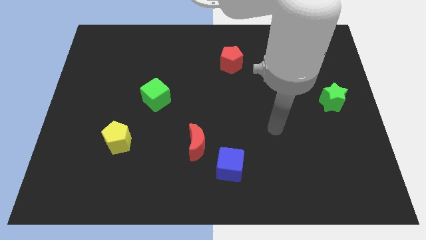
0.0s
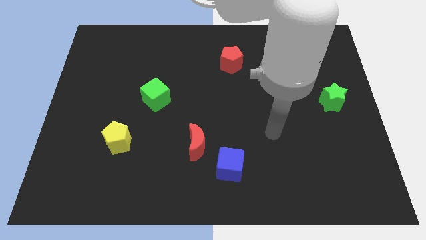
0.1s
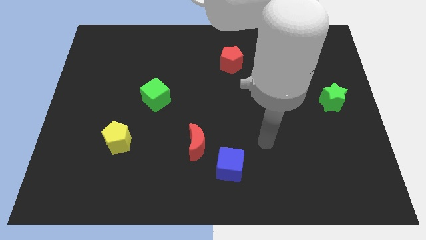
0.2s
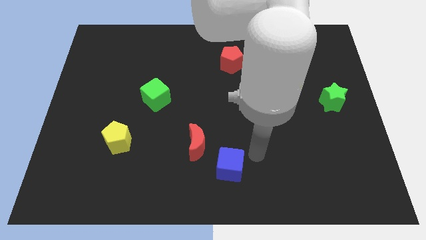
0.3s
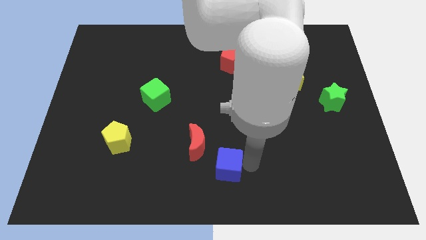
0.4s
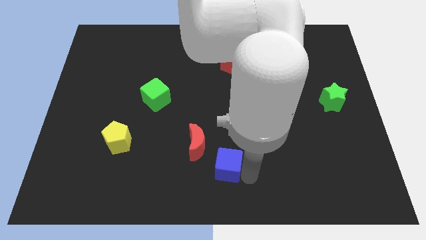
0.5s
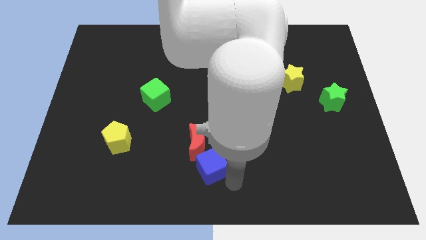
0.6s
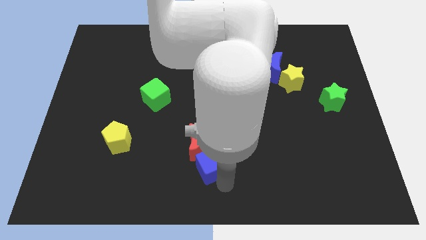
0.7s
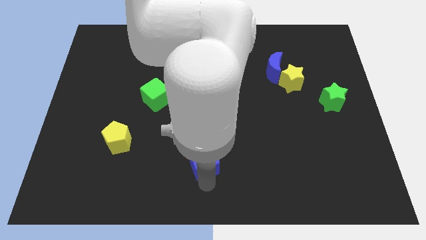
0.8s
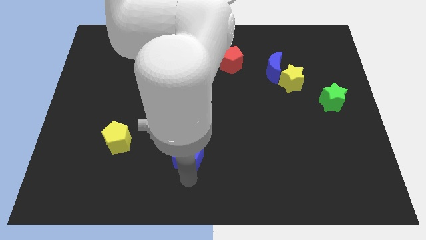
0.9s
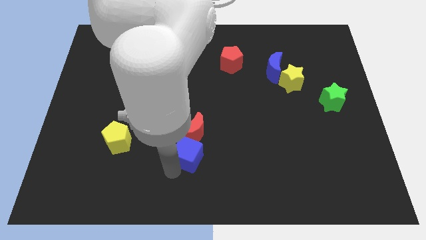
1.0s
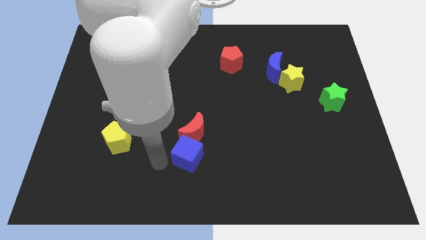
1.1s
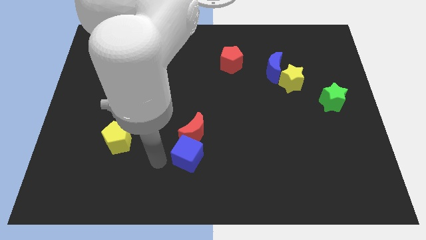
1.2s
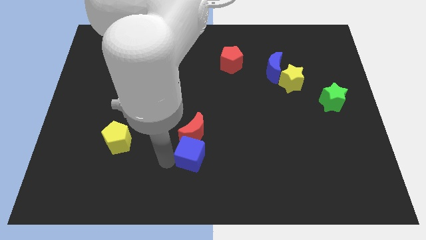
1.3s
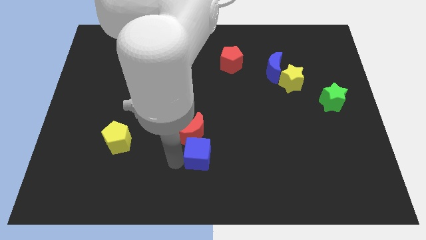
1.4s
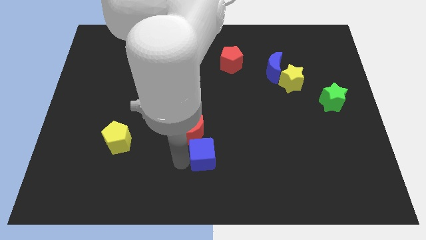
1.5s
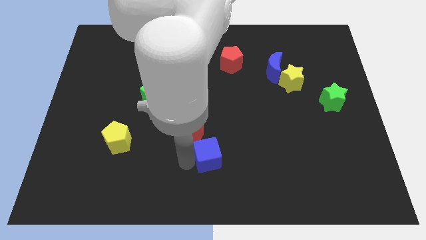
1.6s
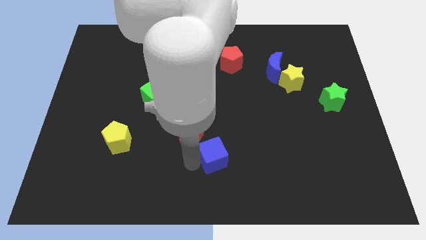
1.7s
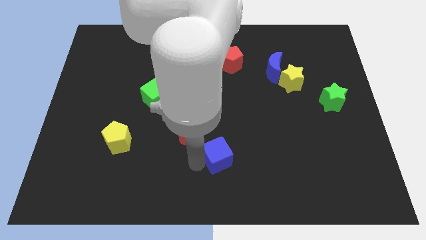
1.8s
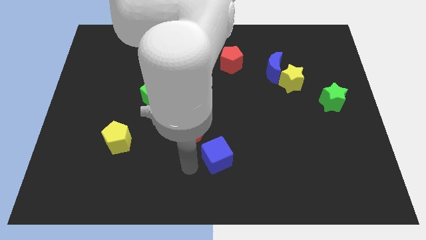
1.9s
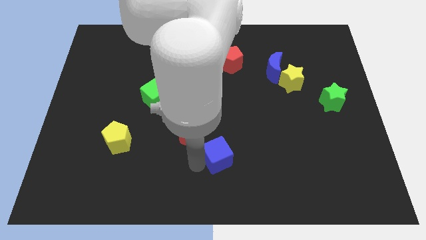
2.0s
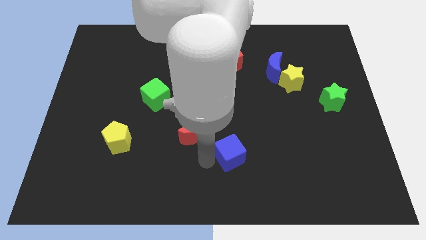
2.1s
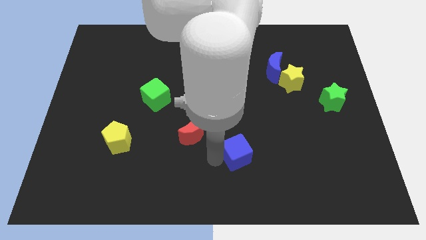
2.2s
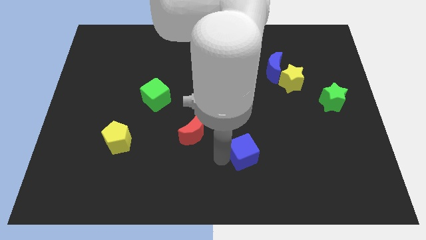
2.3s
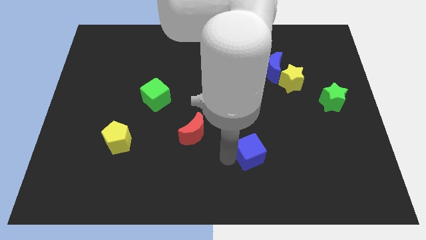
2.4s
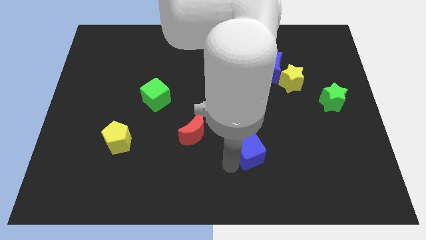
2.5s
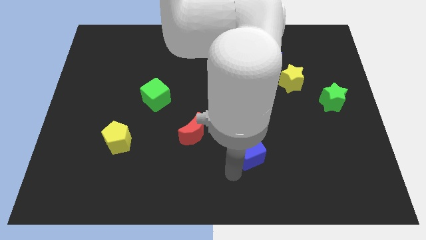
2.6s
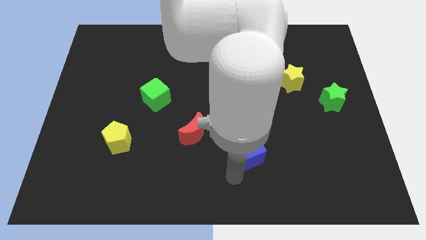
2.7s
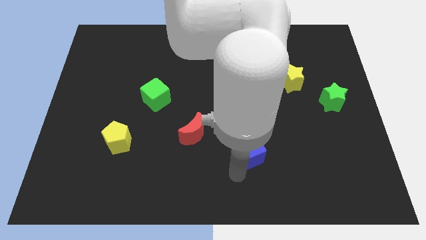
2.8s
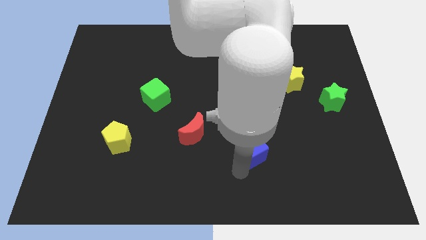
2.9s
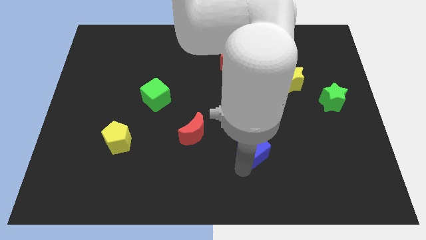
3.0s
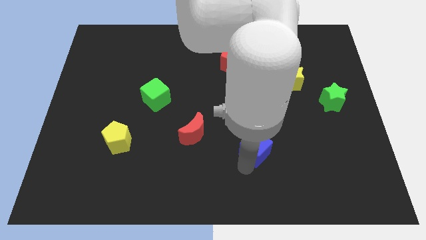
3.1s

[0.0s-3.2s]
push the blue cube a little bit upwards and right

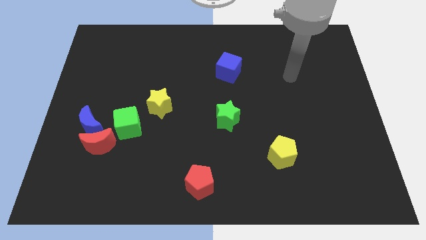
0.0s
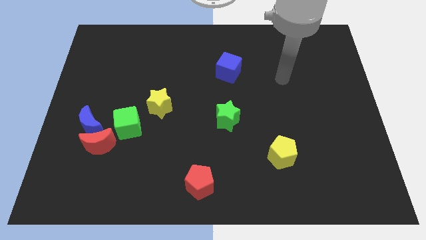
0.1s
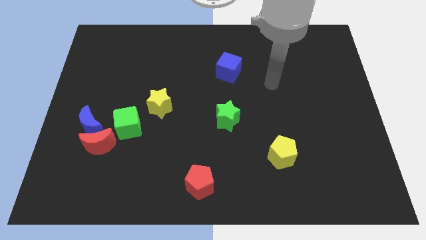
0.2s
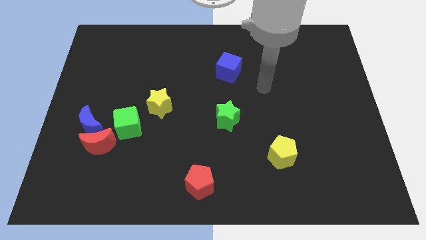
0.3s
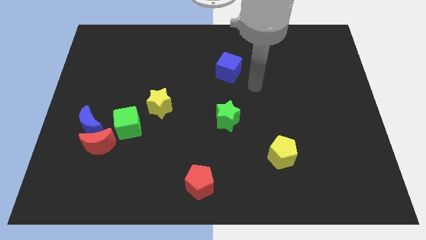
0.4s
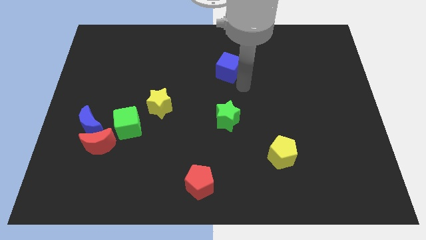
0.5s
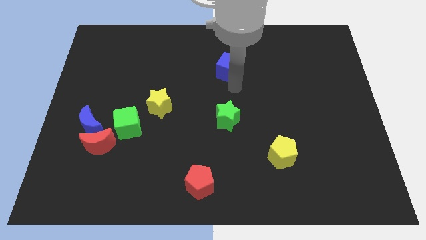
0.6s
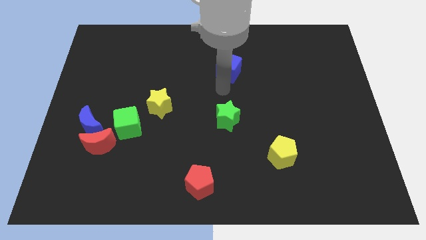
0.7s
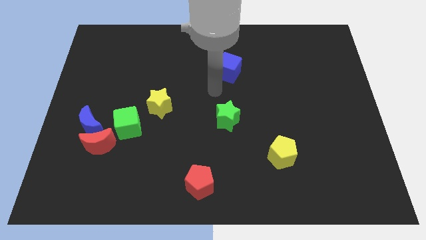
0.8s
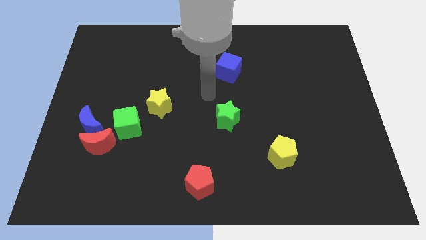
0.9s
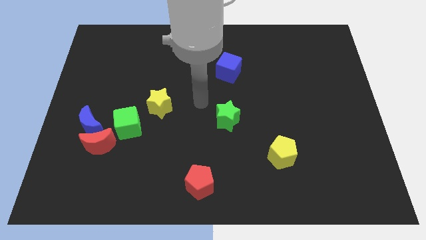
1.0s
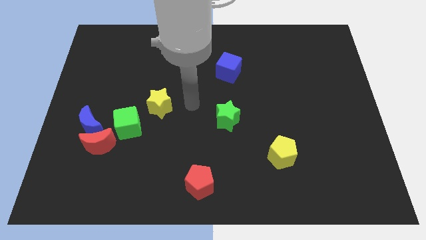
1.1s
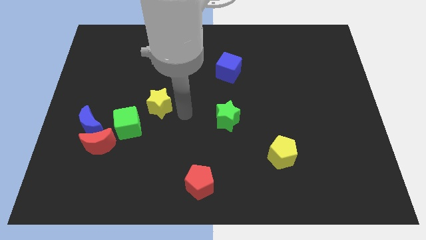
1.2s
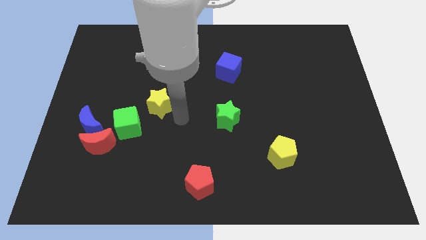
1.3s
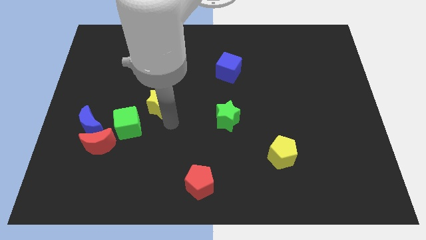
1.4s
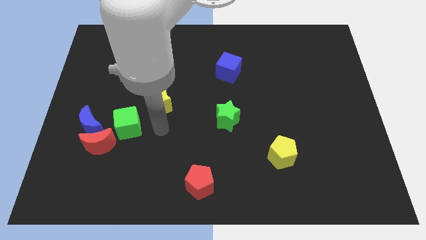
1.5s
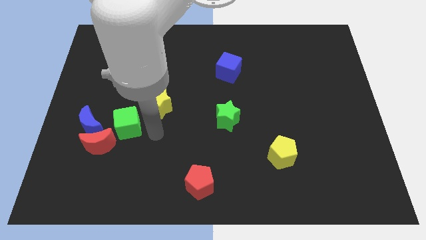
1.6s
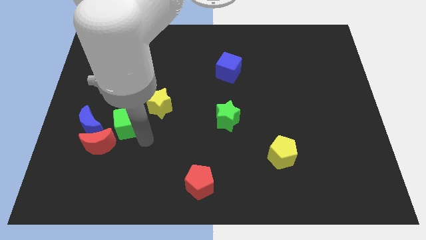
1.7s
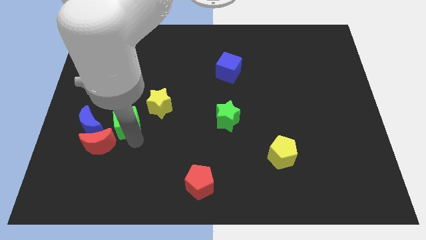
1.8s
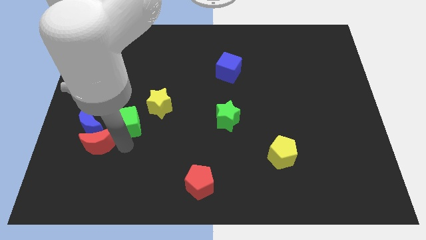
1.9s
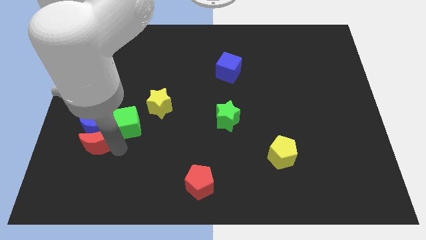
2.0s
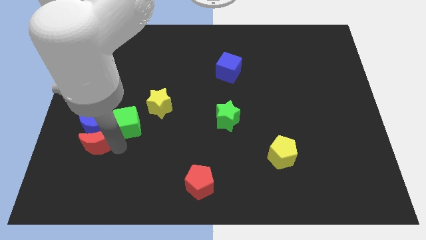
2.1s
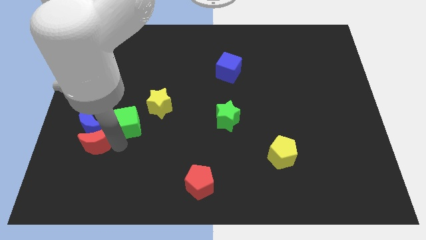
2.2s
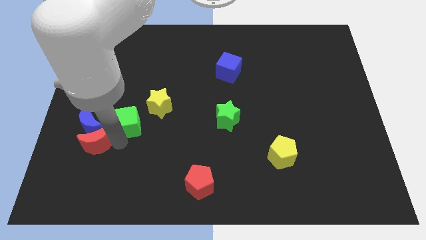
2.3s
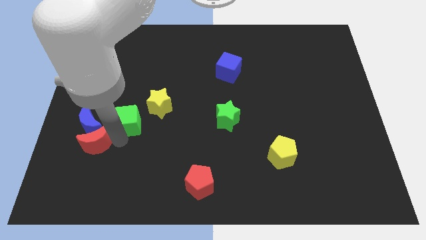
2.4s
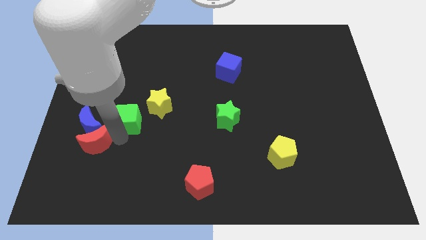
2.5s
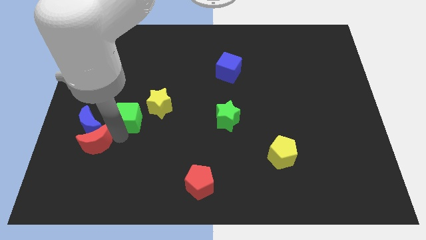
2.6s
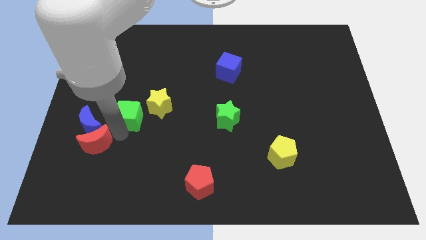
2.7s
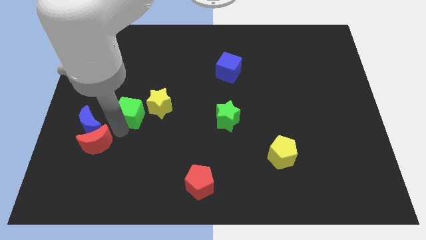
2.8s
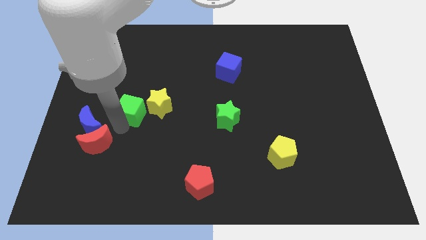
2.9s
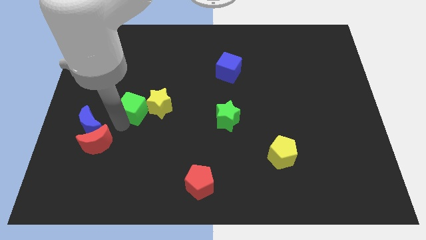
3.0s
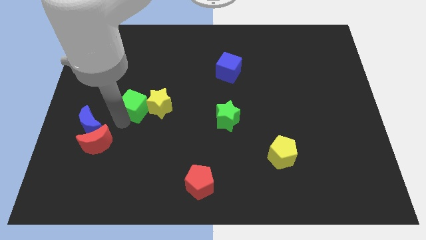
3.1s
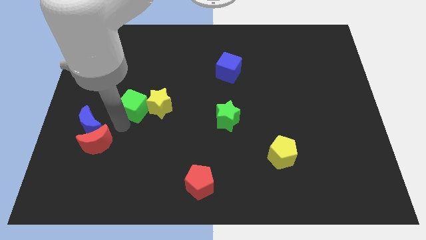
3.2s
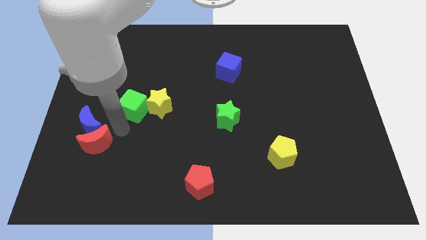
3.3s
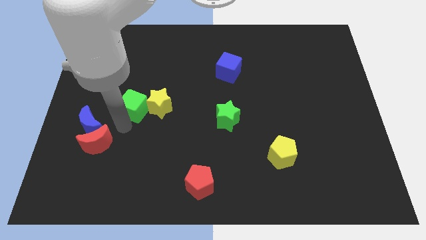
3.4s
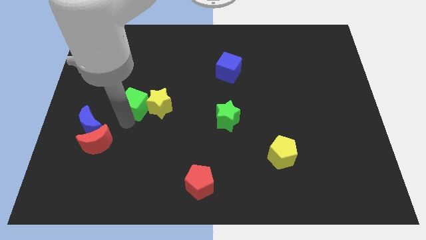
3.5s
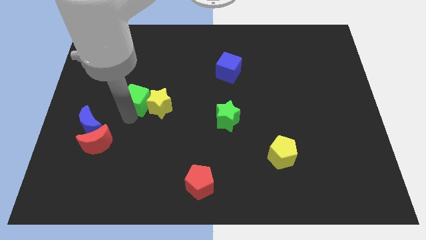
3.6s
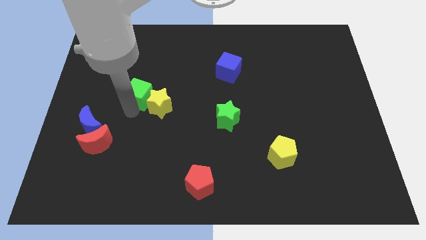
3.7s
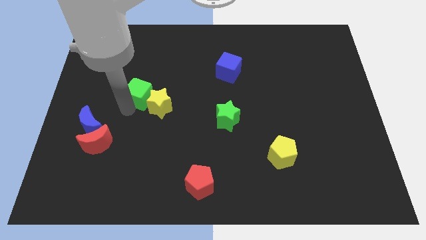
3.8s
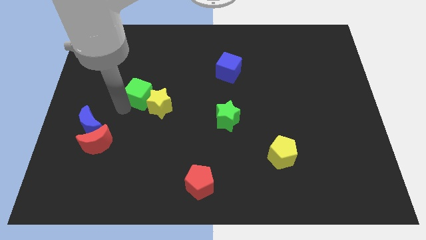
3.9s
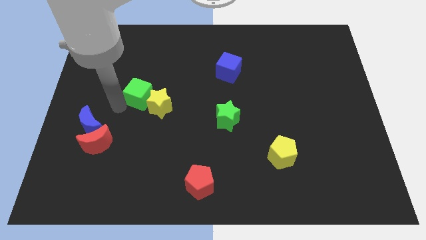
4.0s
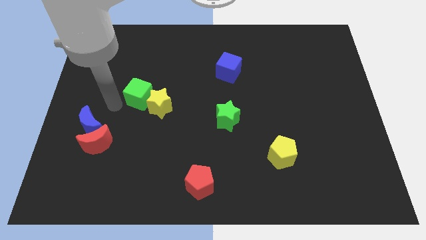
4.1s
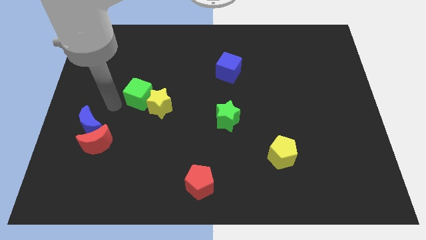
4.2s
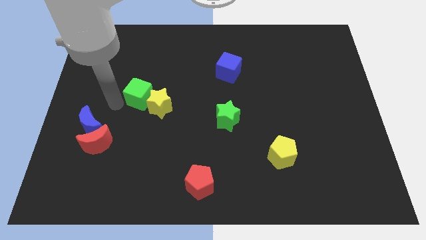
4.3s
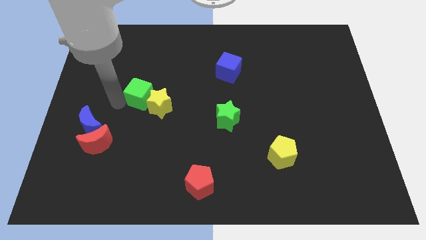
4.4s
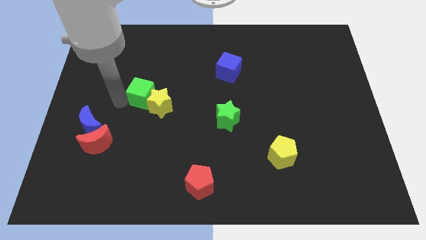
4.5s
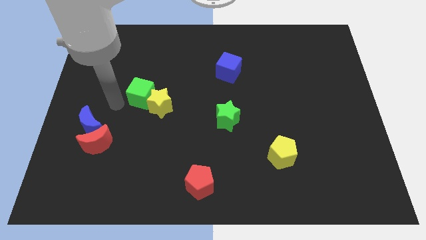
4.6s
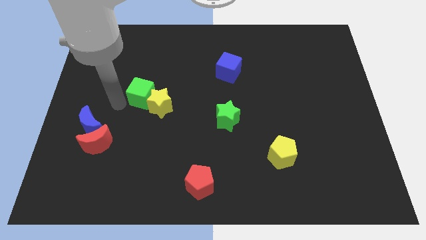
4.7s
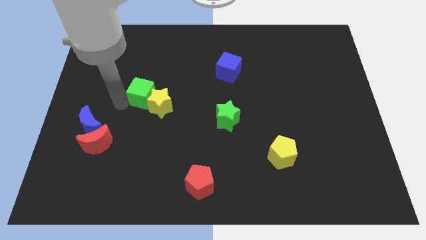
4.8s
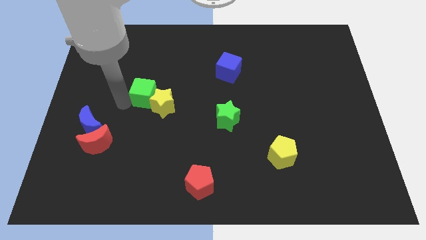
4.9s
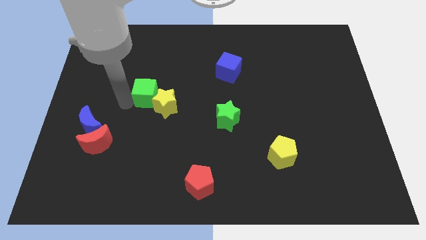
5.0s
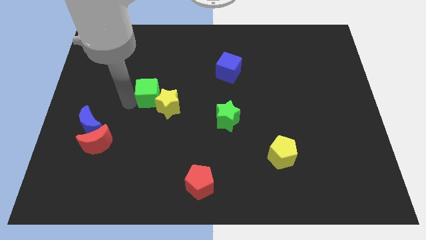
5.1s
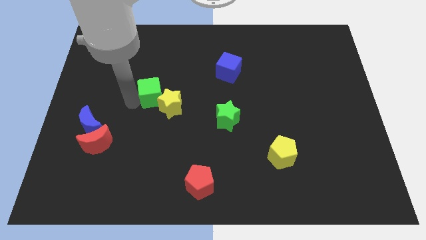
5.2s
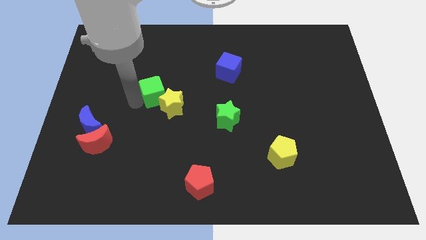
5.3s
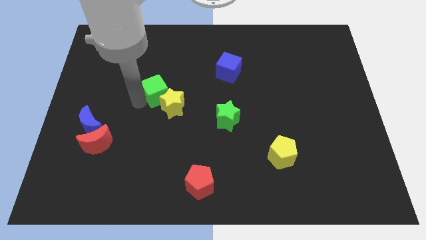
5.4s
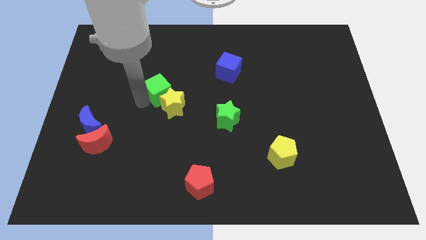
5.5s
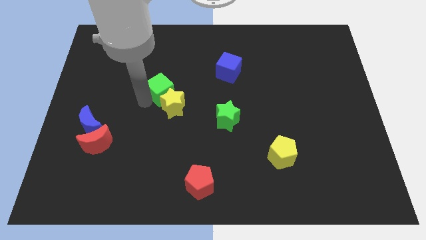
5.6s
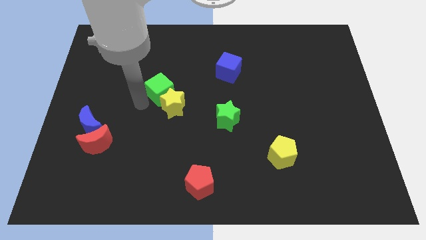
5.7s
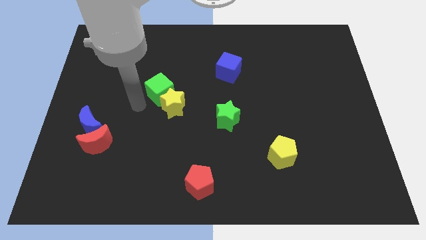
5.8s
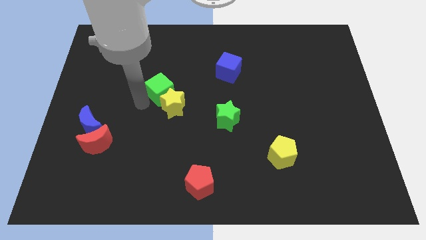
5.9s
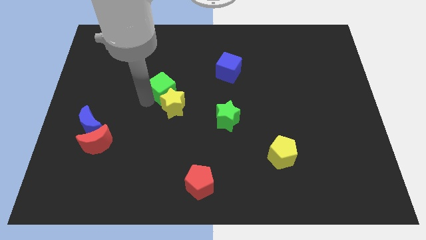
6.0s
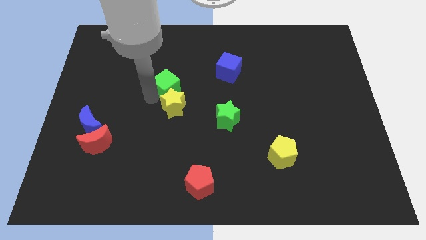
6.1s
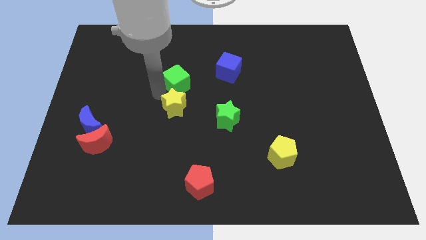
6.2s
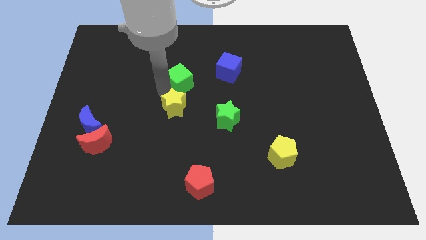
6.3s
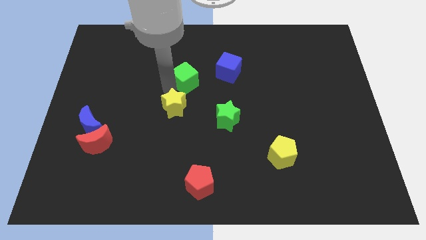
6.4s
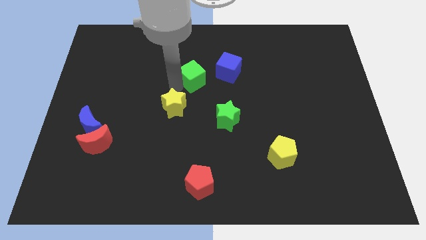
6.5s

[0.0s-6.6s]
slide the green cube diagonally up and to the right
